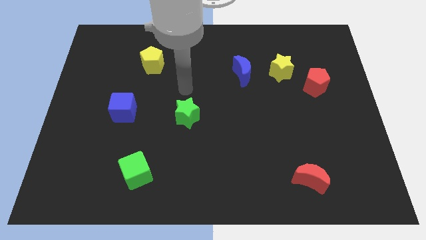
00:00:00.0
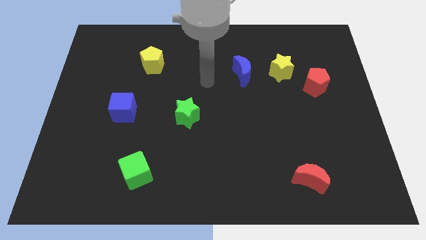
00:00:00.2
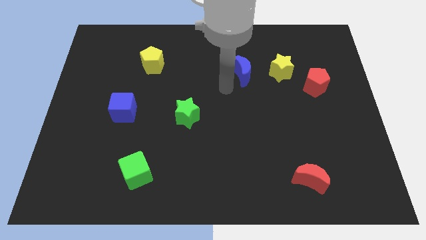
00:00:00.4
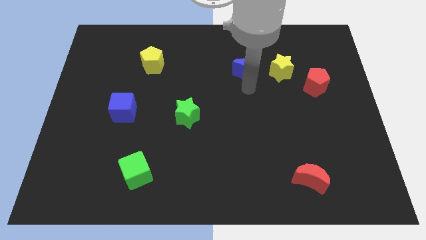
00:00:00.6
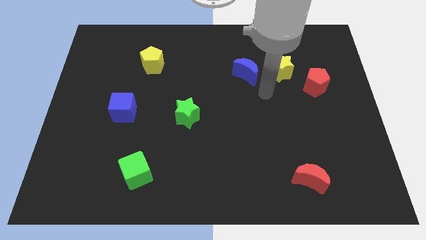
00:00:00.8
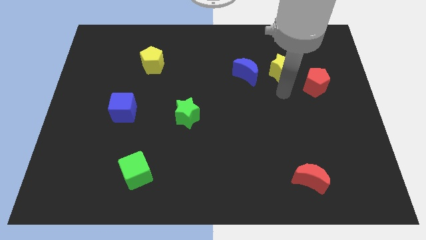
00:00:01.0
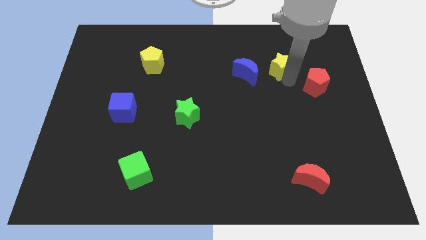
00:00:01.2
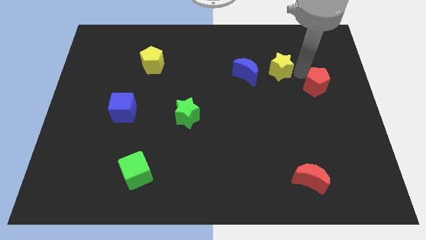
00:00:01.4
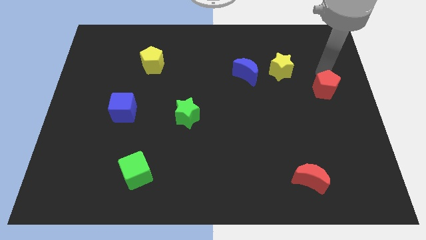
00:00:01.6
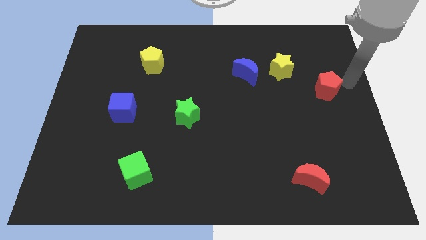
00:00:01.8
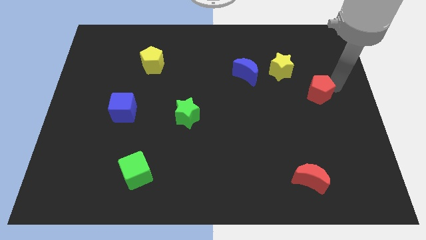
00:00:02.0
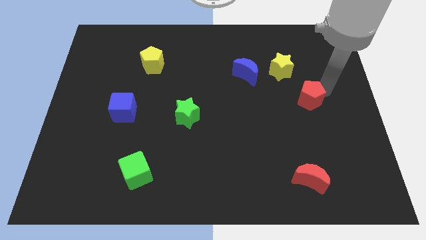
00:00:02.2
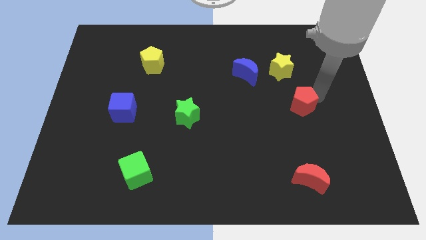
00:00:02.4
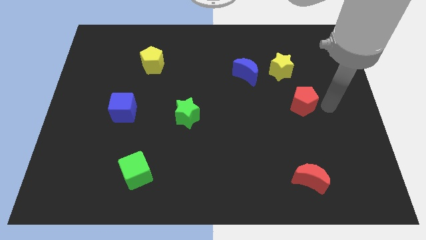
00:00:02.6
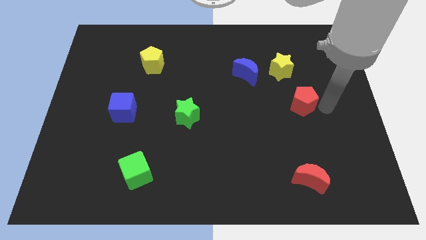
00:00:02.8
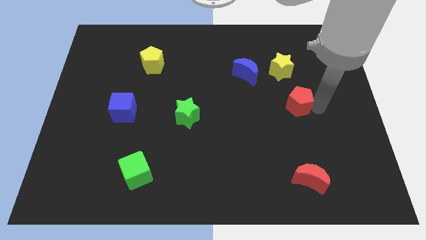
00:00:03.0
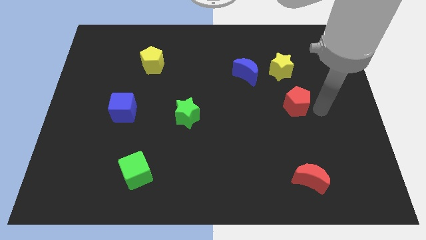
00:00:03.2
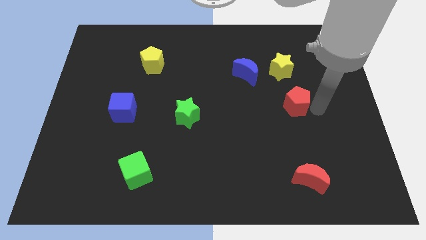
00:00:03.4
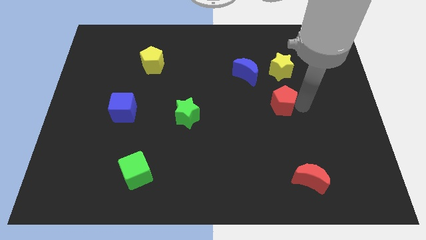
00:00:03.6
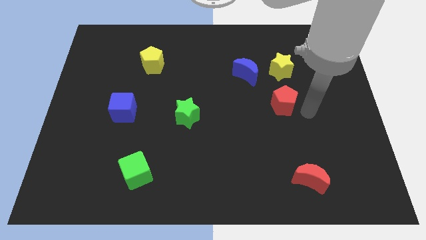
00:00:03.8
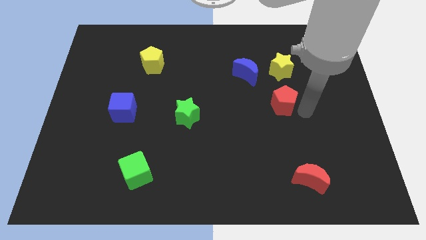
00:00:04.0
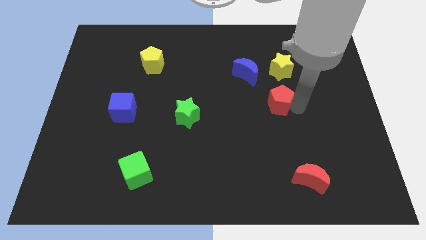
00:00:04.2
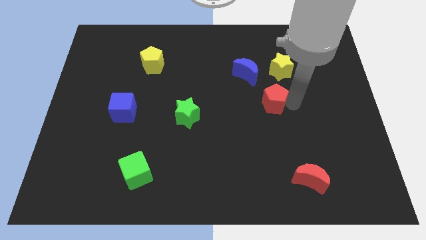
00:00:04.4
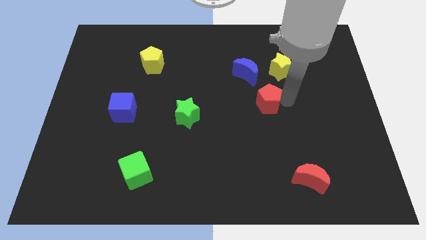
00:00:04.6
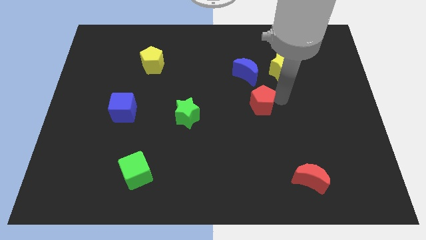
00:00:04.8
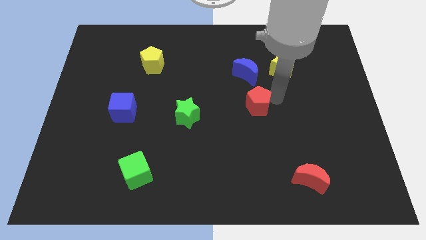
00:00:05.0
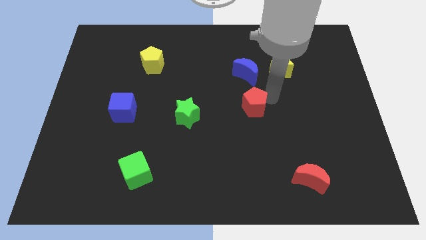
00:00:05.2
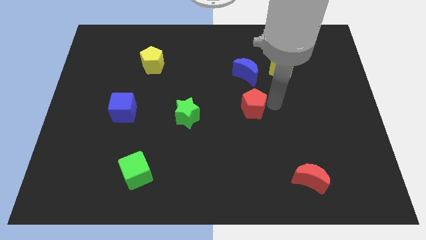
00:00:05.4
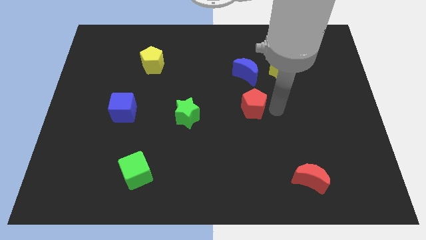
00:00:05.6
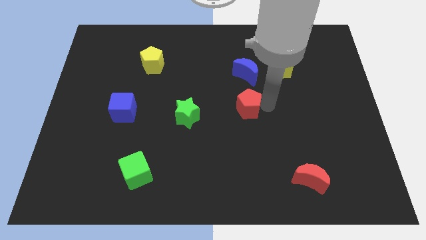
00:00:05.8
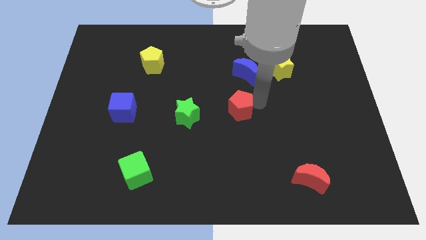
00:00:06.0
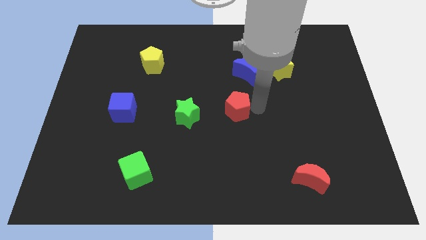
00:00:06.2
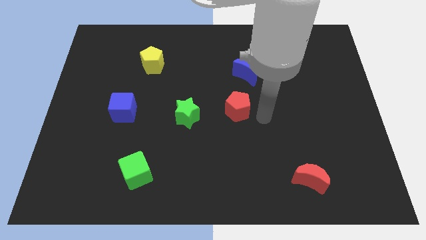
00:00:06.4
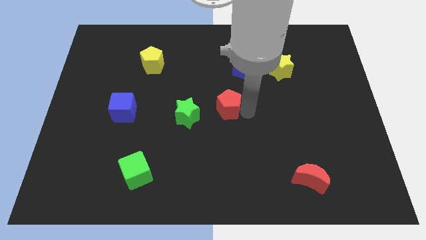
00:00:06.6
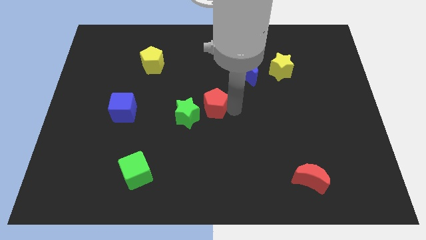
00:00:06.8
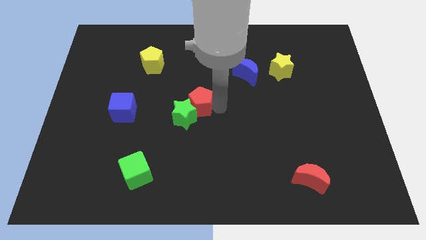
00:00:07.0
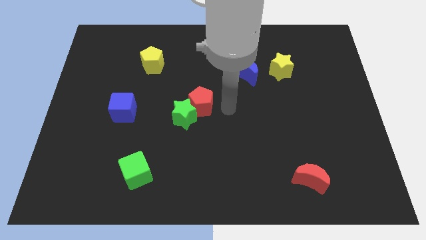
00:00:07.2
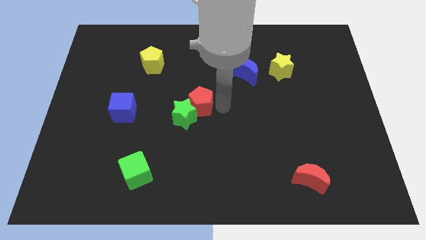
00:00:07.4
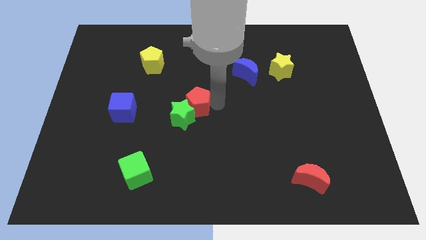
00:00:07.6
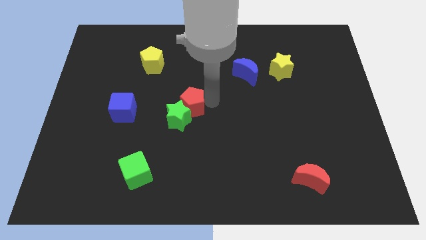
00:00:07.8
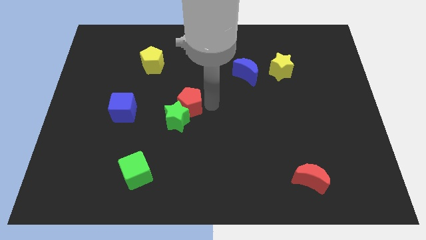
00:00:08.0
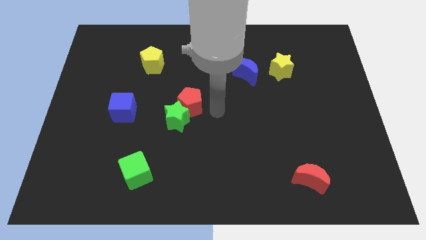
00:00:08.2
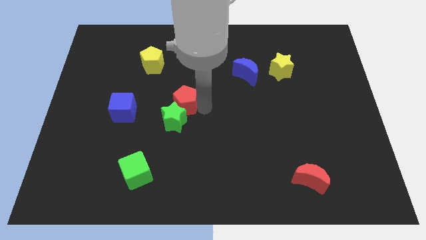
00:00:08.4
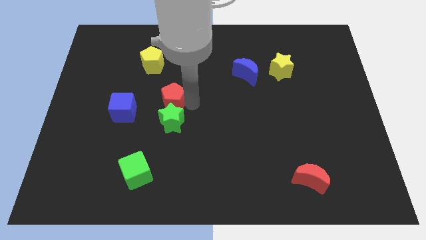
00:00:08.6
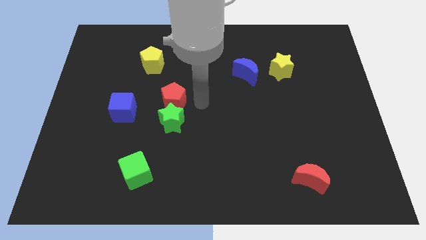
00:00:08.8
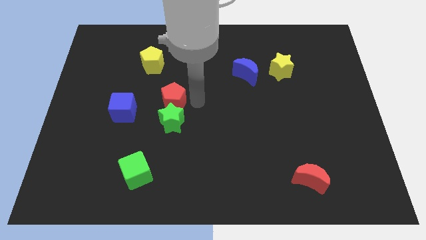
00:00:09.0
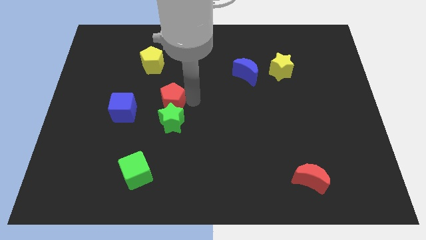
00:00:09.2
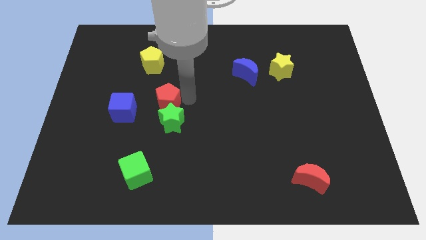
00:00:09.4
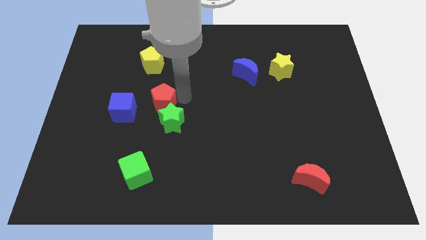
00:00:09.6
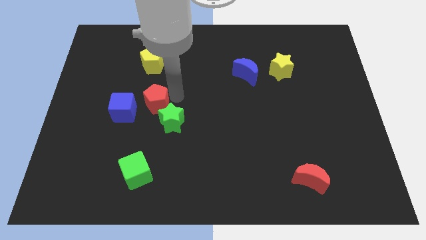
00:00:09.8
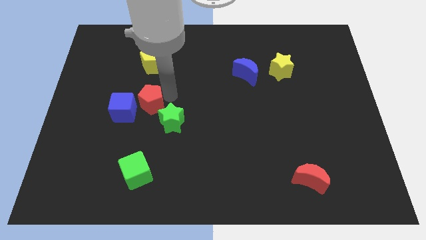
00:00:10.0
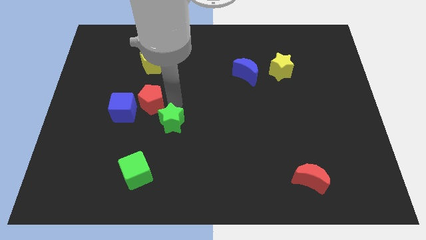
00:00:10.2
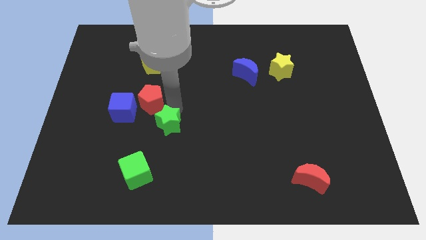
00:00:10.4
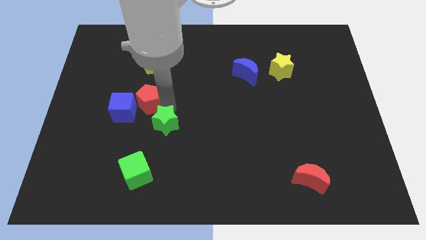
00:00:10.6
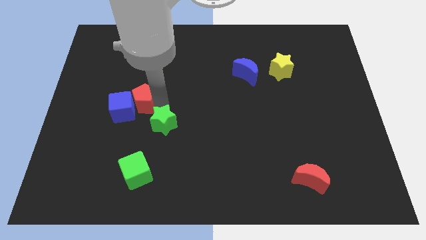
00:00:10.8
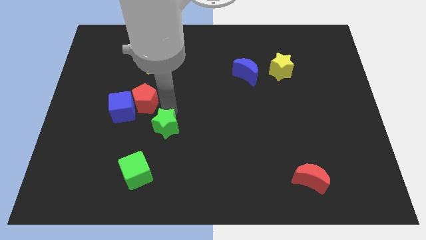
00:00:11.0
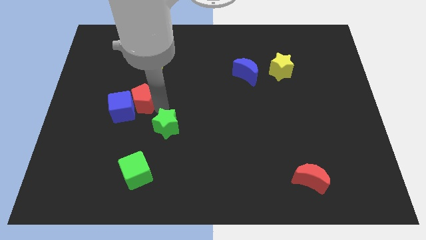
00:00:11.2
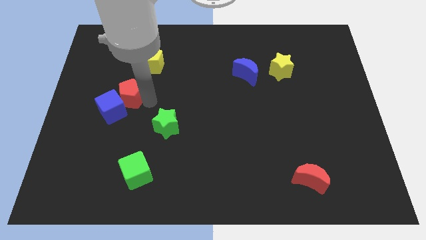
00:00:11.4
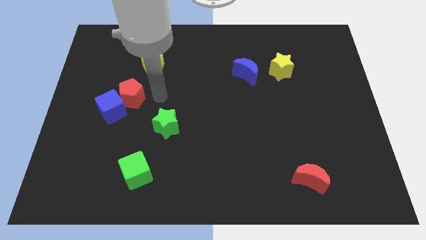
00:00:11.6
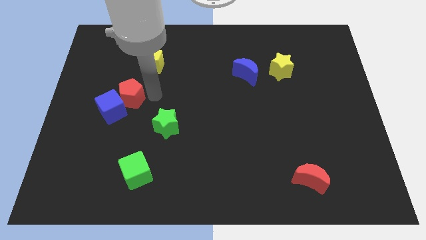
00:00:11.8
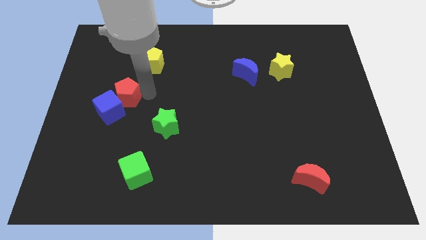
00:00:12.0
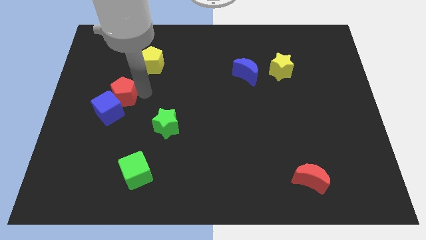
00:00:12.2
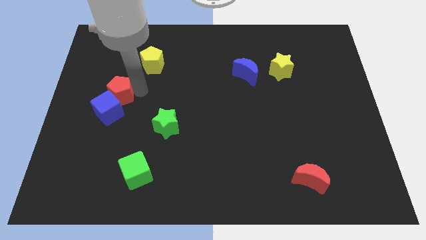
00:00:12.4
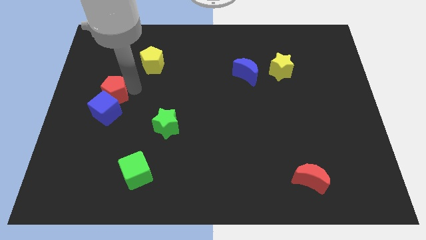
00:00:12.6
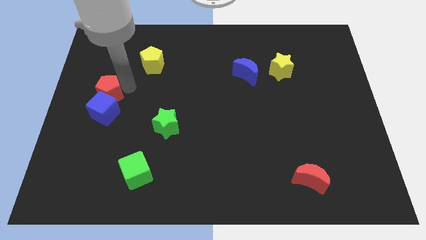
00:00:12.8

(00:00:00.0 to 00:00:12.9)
push the red pentagon to the left side of the board
